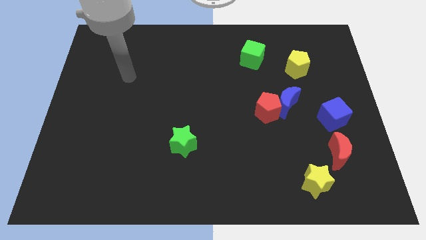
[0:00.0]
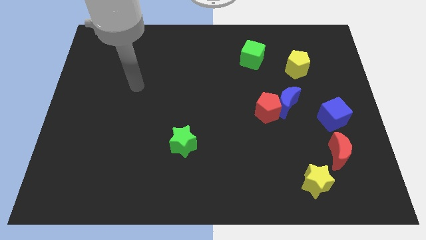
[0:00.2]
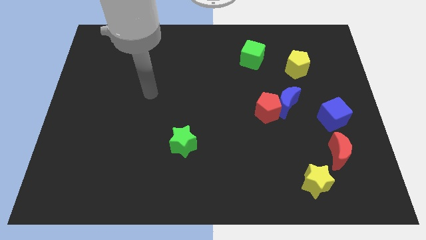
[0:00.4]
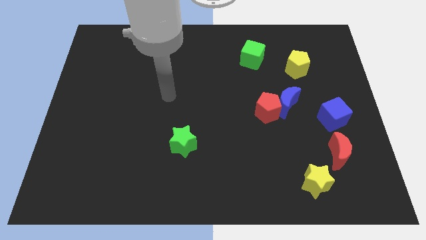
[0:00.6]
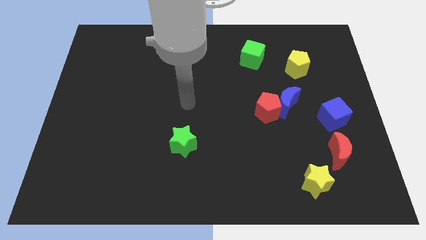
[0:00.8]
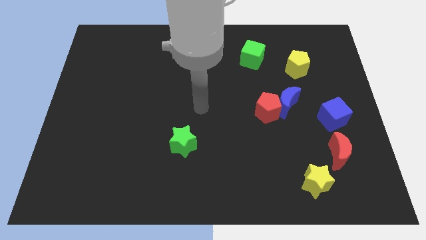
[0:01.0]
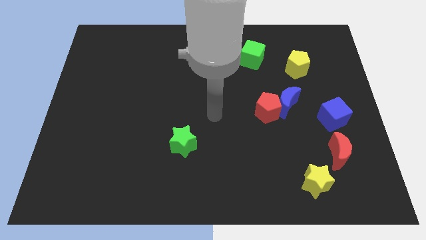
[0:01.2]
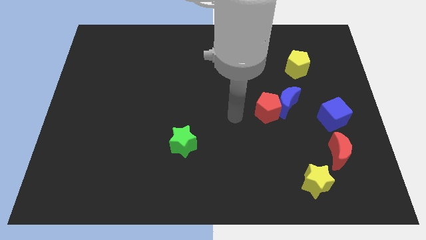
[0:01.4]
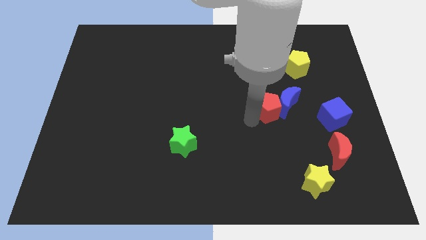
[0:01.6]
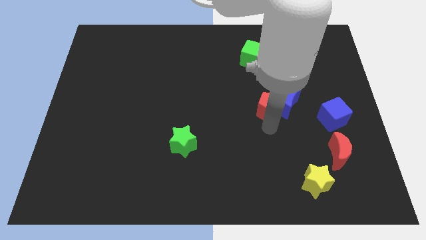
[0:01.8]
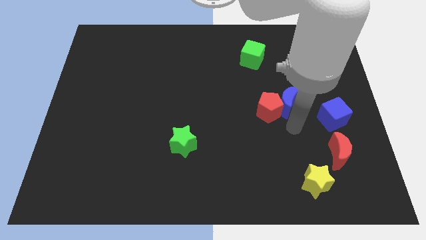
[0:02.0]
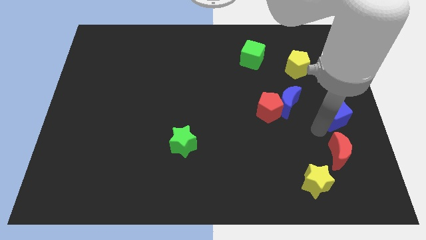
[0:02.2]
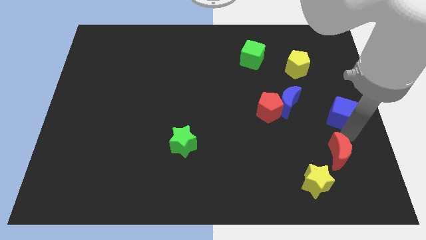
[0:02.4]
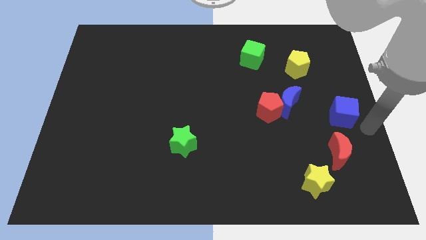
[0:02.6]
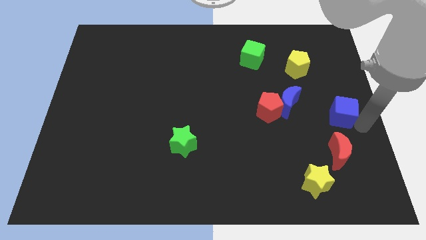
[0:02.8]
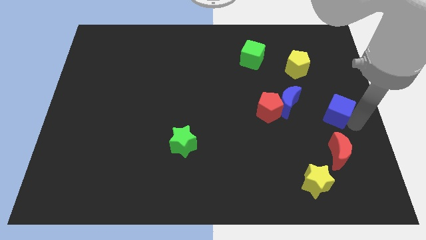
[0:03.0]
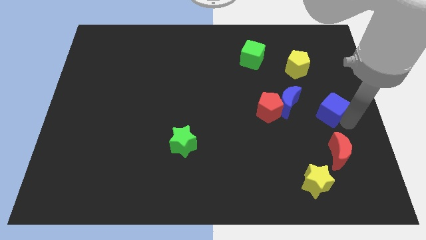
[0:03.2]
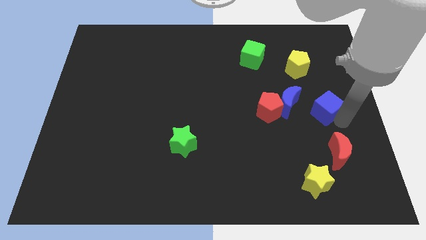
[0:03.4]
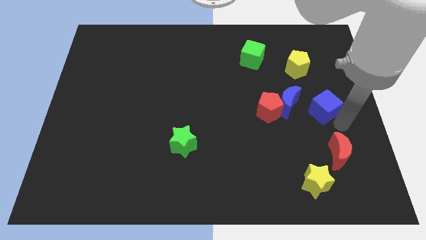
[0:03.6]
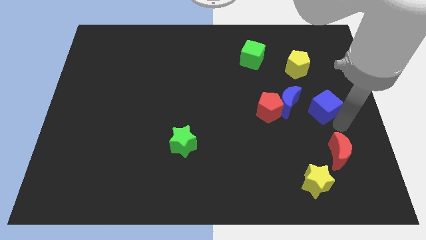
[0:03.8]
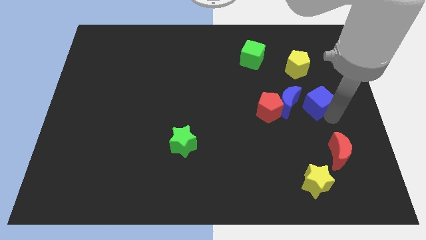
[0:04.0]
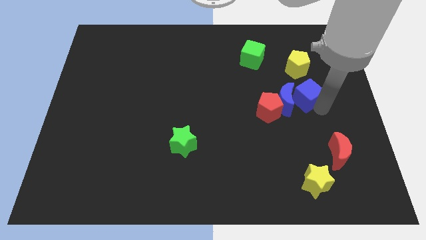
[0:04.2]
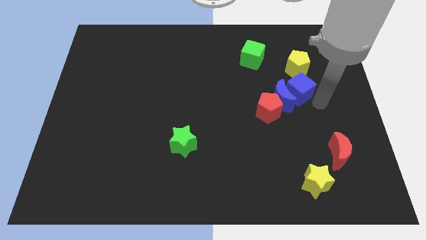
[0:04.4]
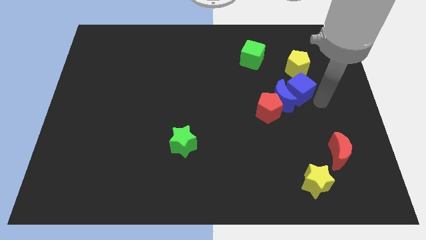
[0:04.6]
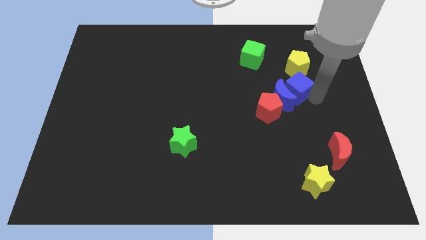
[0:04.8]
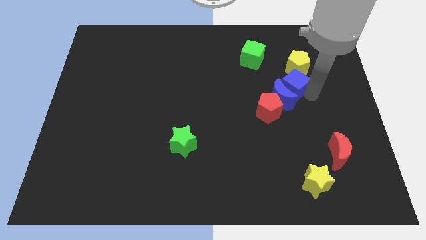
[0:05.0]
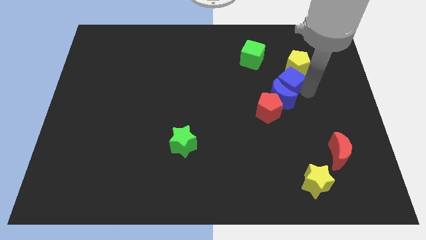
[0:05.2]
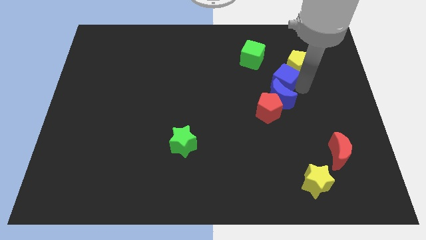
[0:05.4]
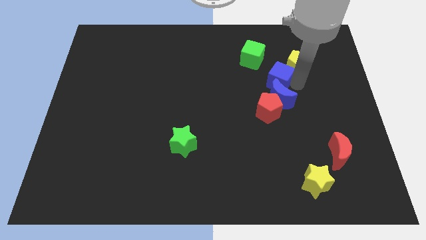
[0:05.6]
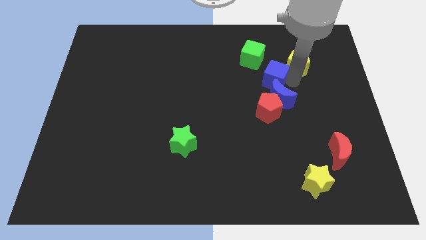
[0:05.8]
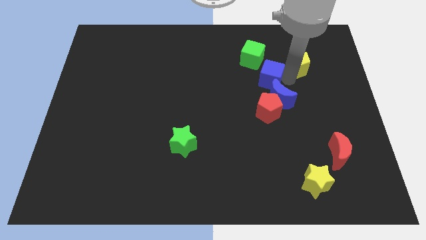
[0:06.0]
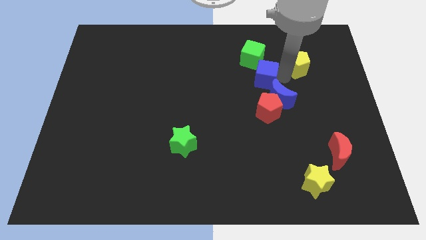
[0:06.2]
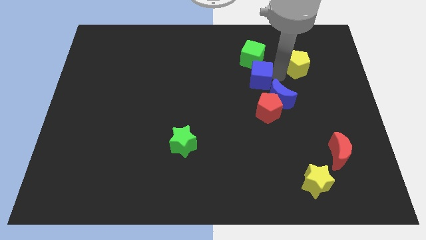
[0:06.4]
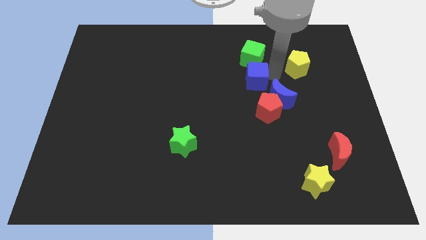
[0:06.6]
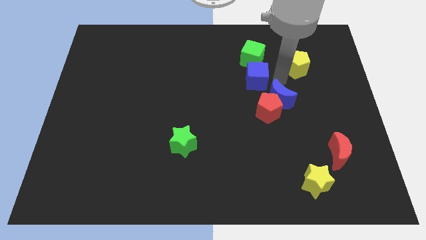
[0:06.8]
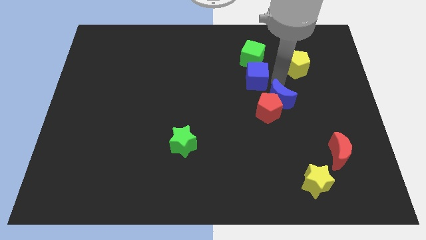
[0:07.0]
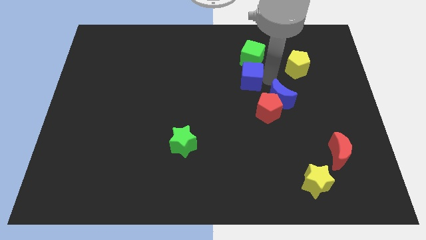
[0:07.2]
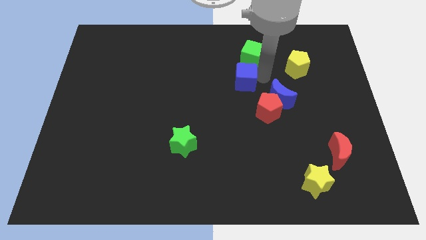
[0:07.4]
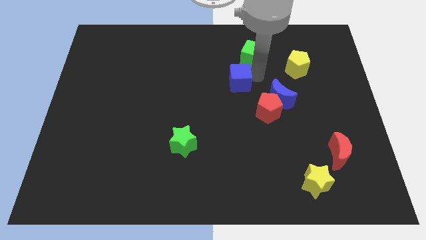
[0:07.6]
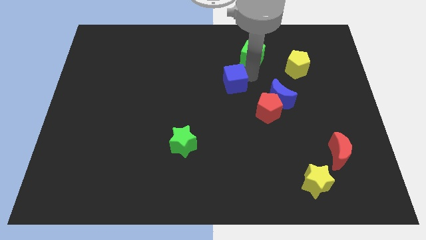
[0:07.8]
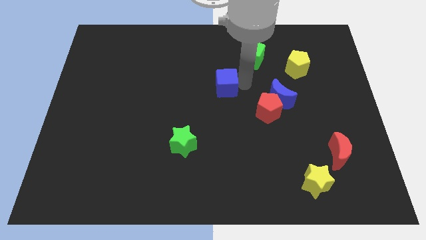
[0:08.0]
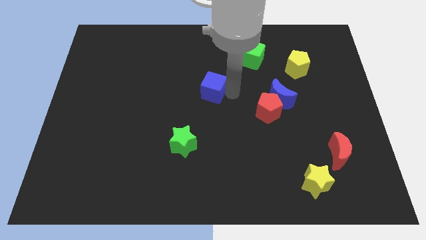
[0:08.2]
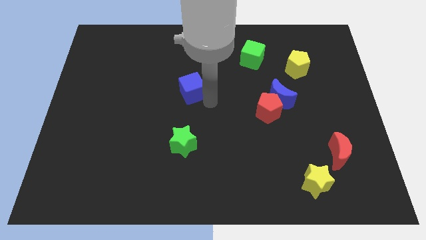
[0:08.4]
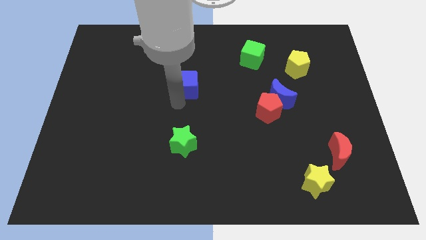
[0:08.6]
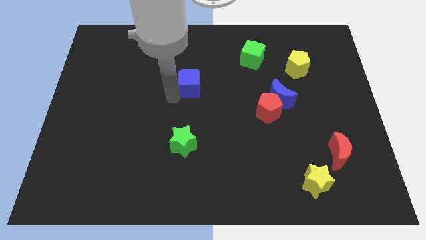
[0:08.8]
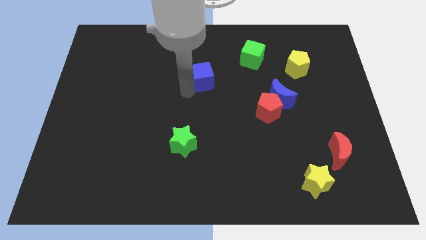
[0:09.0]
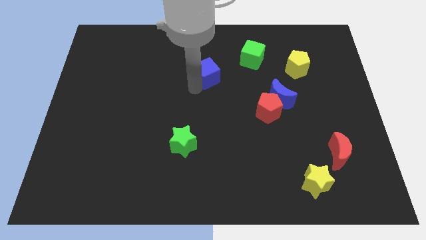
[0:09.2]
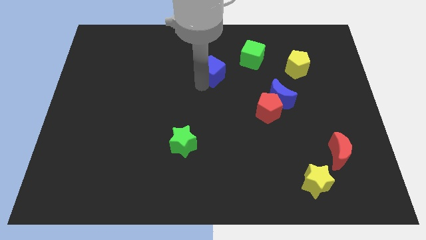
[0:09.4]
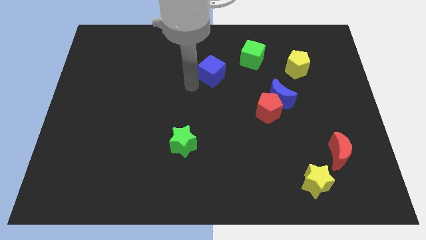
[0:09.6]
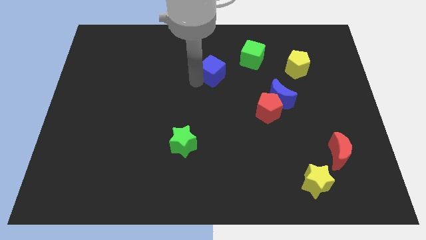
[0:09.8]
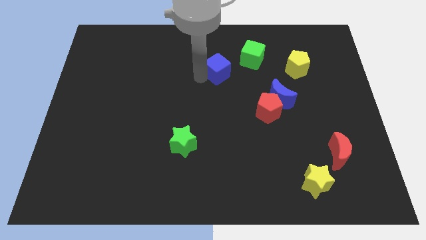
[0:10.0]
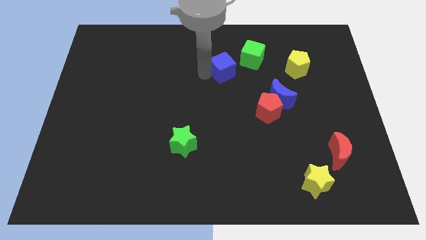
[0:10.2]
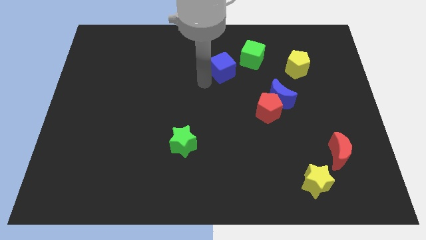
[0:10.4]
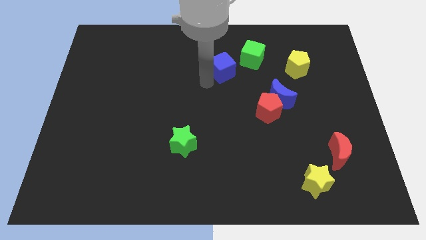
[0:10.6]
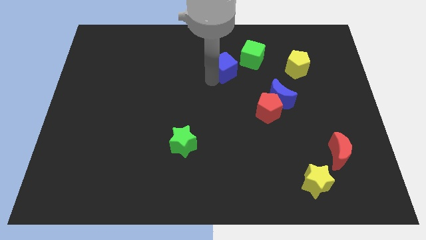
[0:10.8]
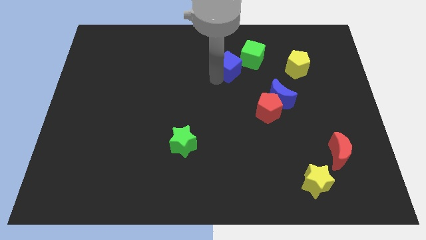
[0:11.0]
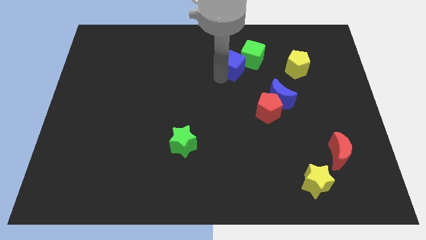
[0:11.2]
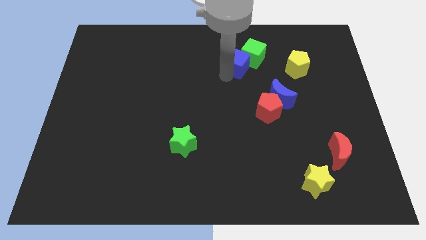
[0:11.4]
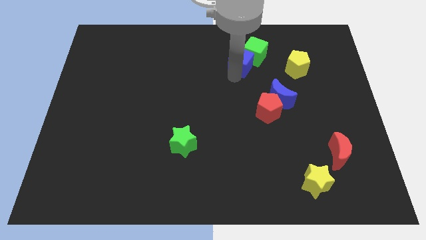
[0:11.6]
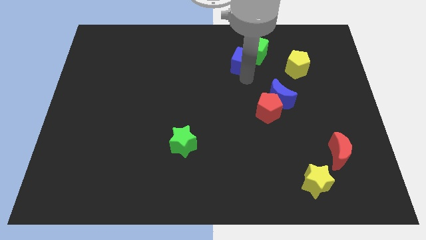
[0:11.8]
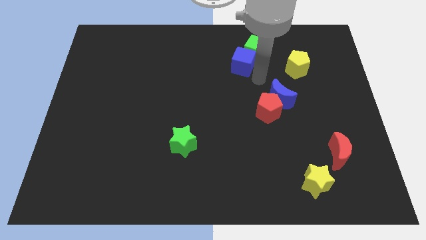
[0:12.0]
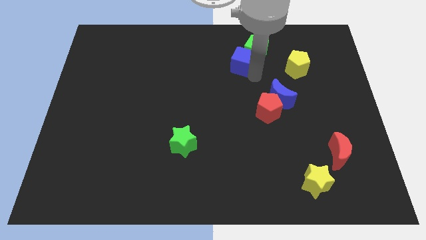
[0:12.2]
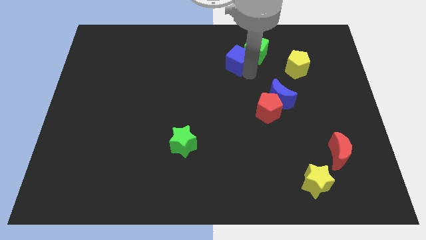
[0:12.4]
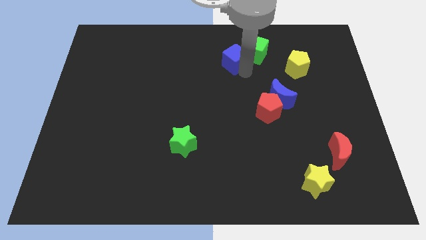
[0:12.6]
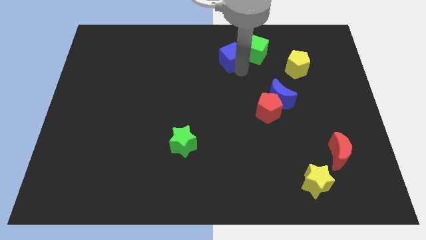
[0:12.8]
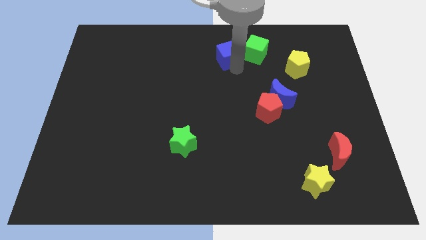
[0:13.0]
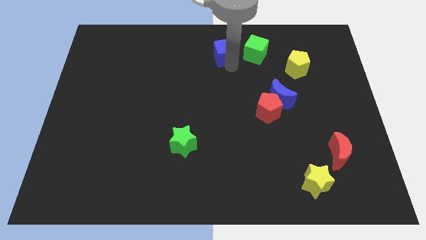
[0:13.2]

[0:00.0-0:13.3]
slide the blue cube to the top side
